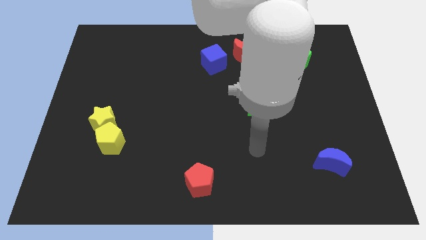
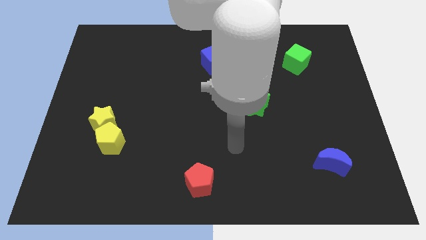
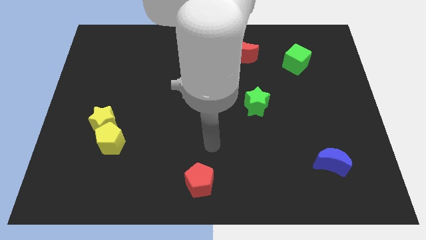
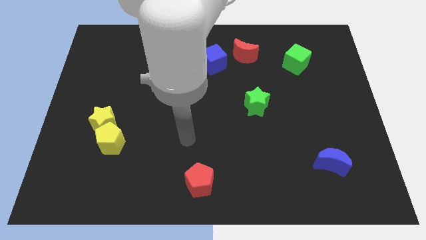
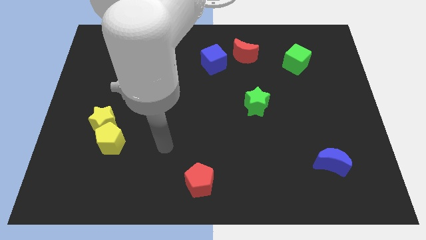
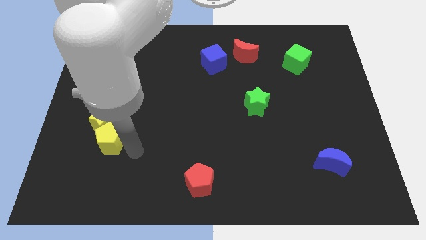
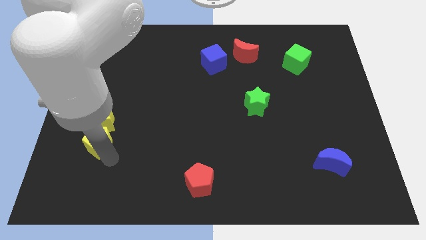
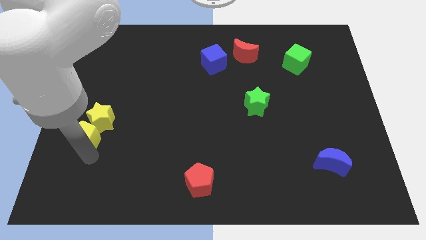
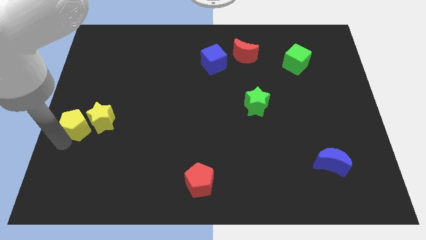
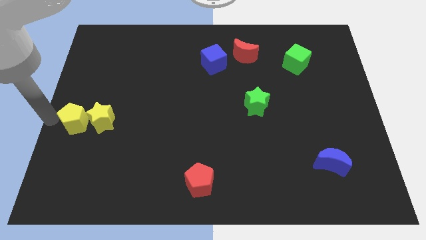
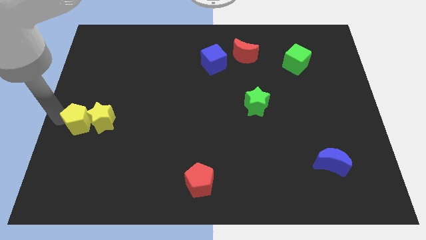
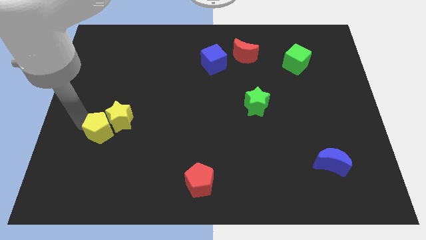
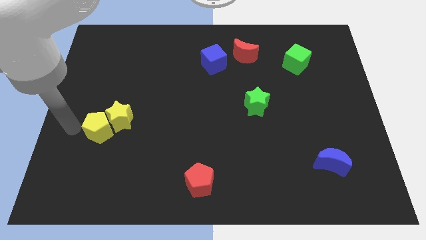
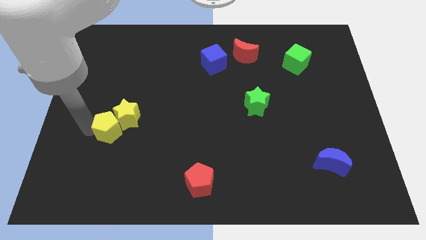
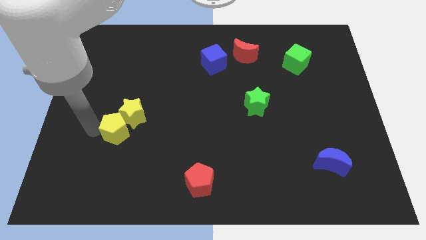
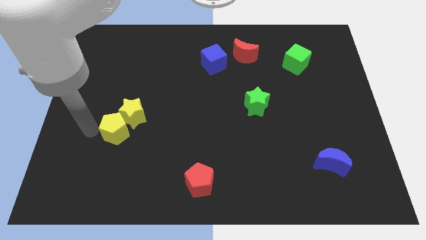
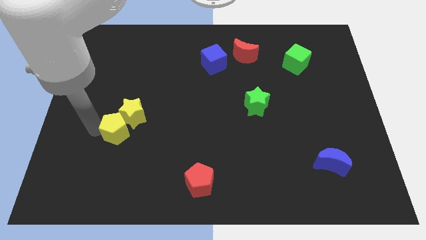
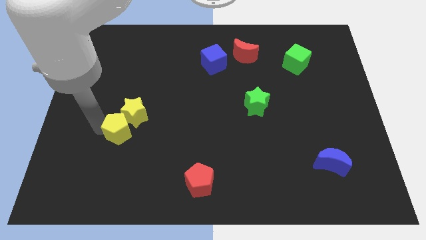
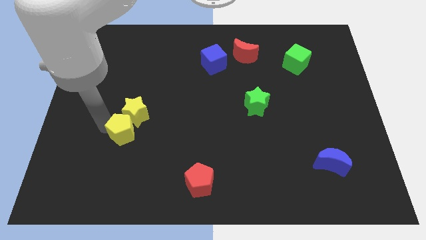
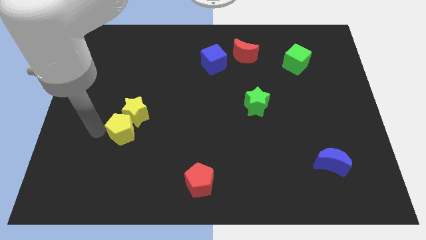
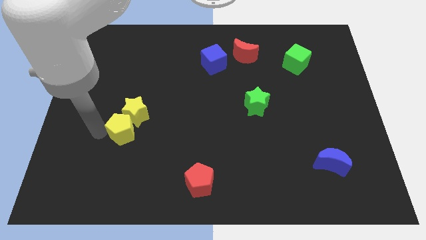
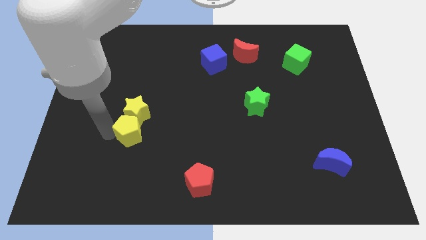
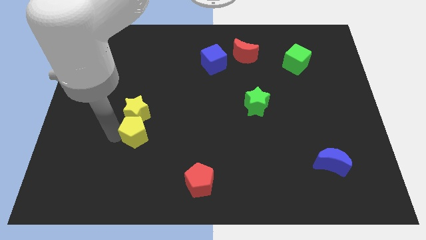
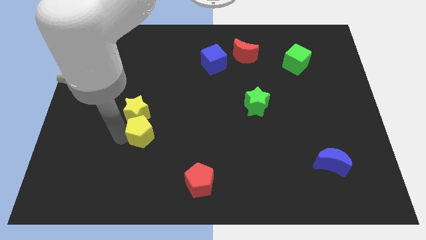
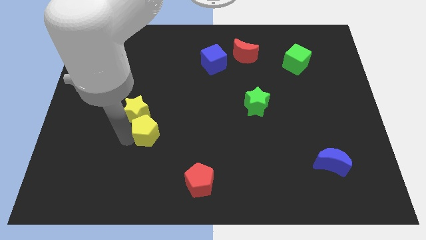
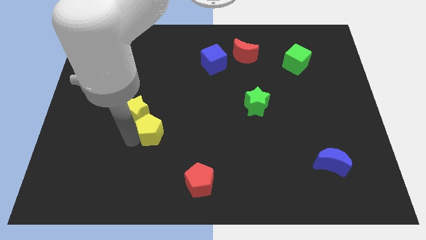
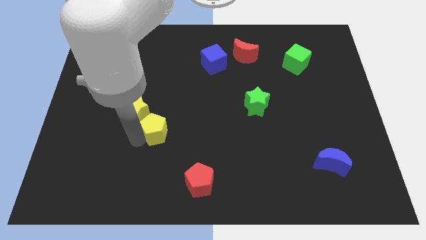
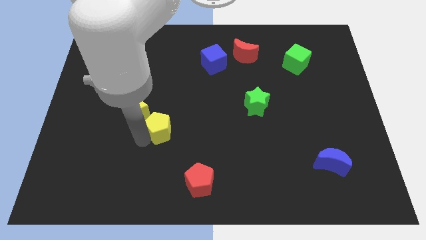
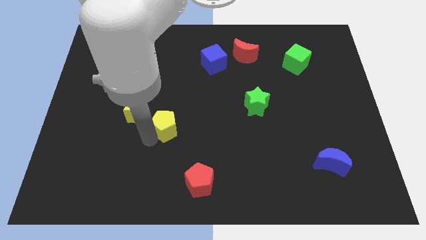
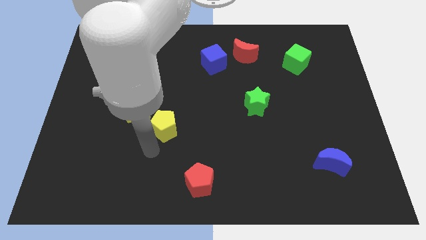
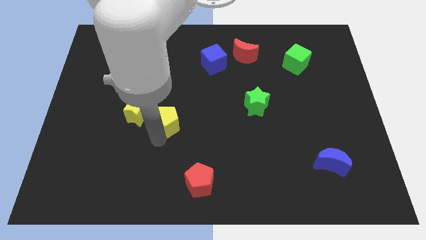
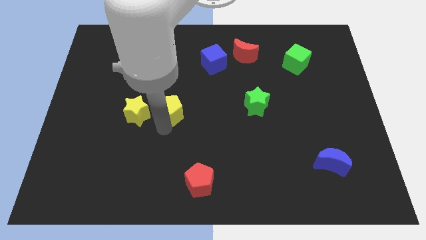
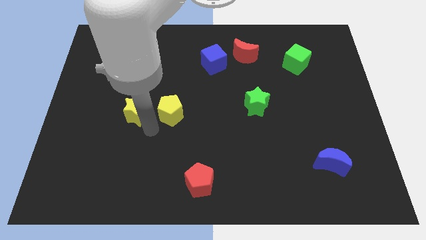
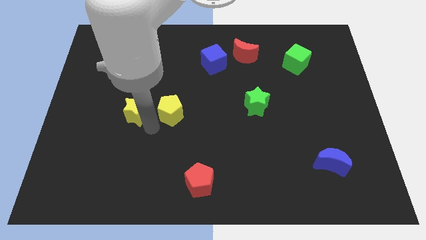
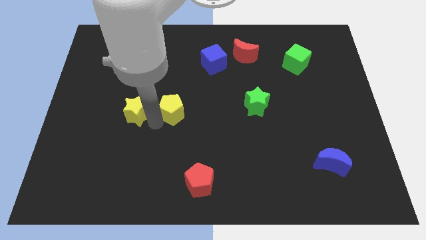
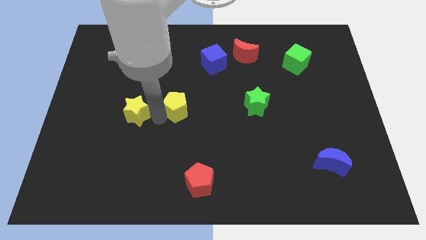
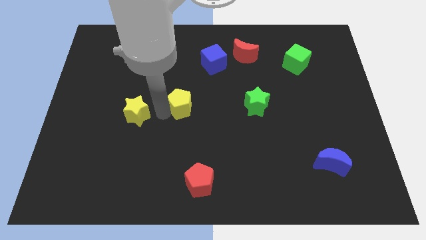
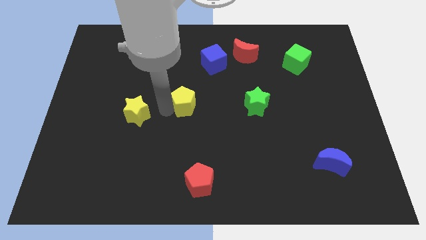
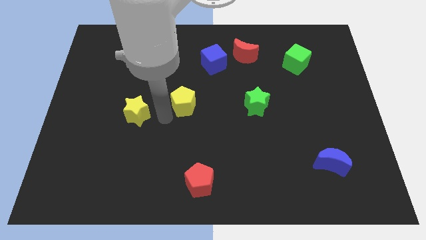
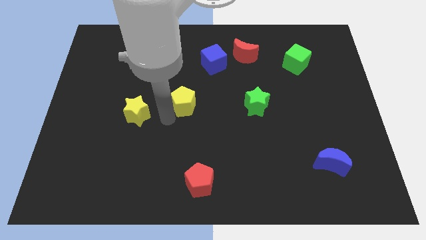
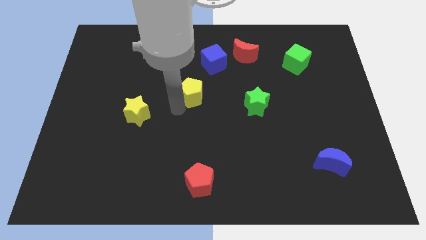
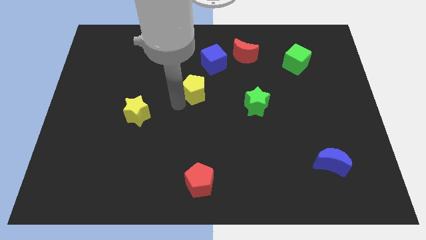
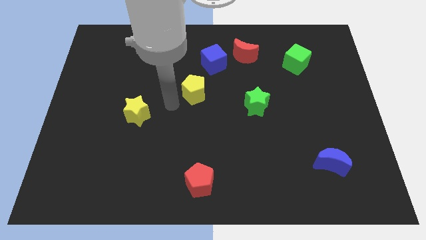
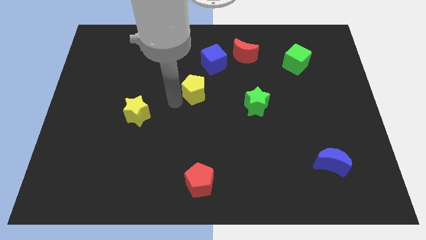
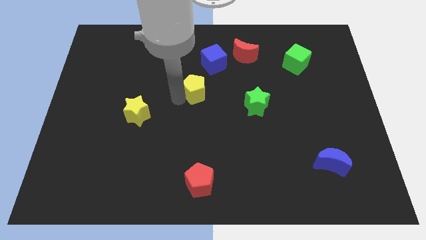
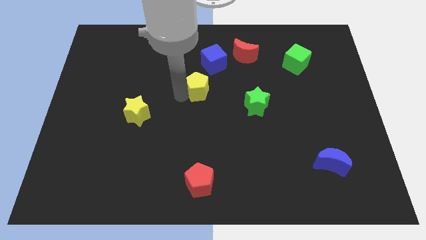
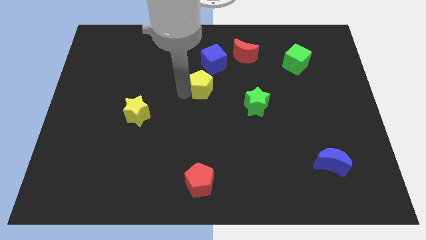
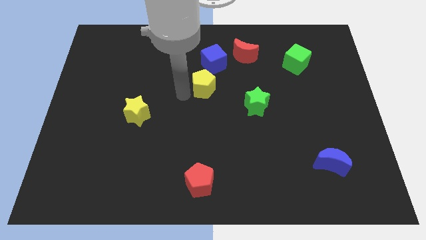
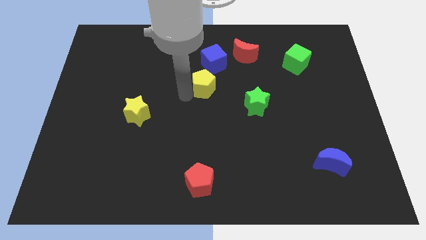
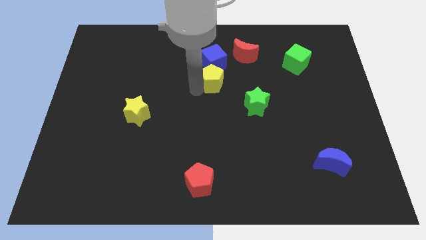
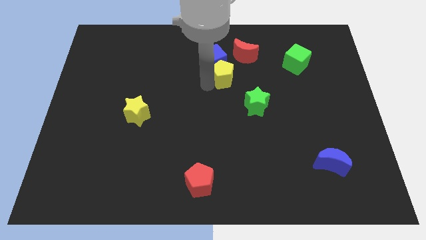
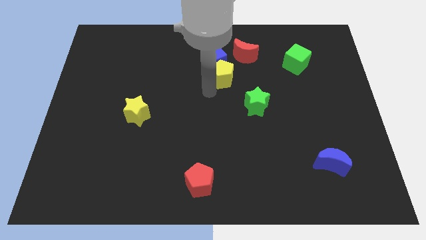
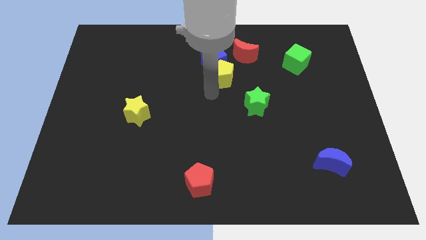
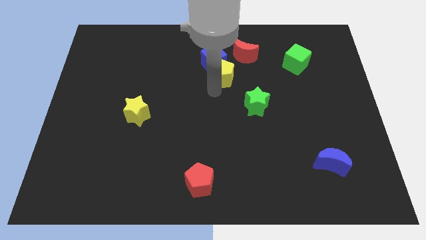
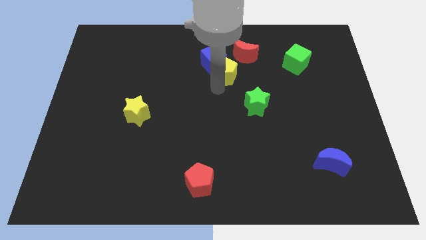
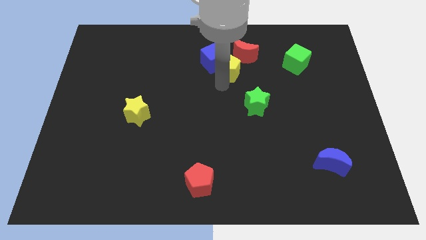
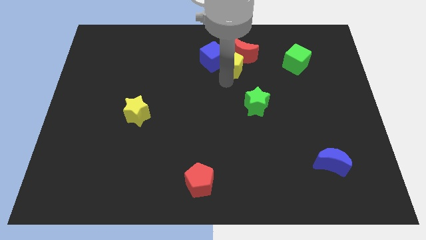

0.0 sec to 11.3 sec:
put the yellow pentagon close to the red moon

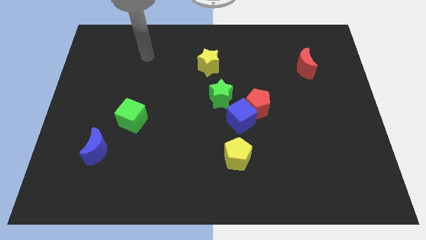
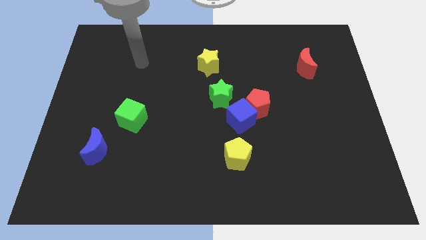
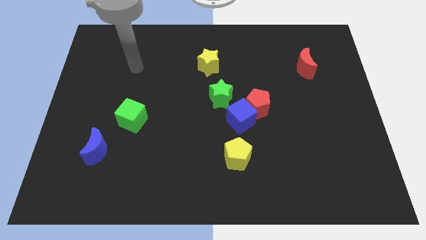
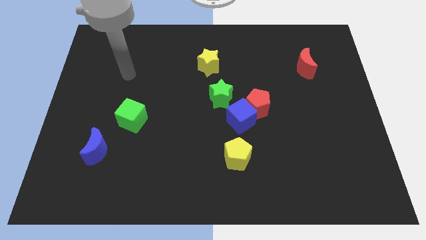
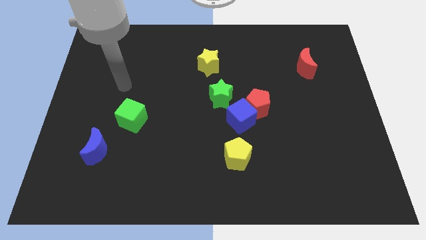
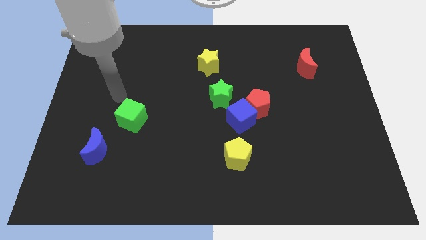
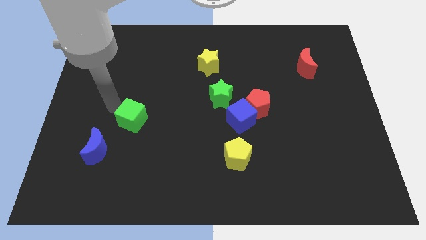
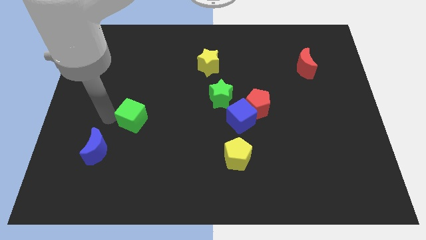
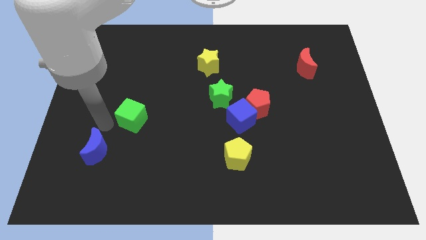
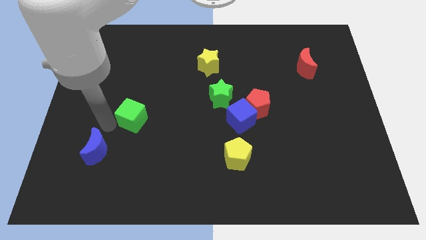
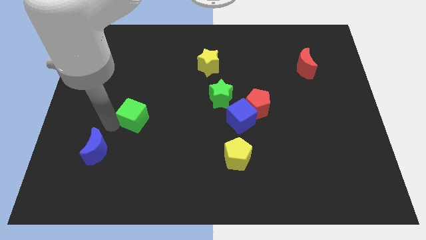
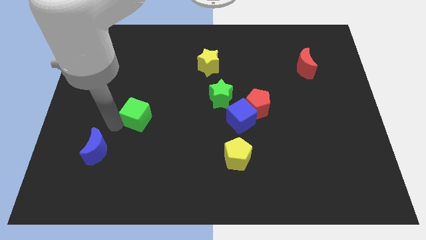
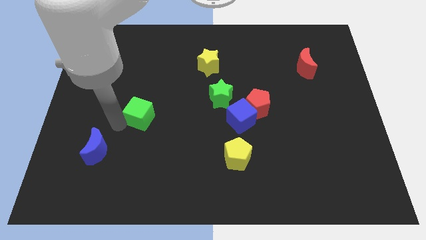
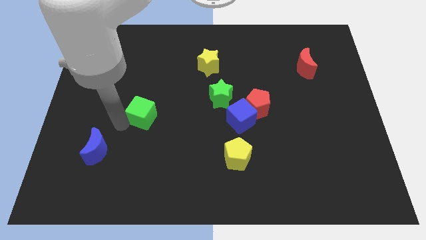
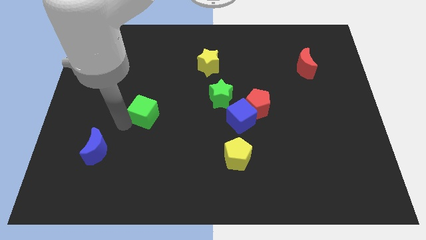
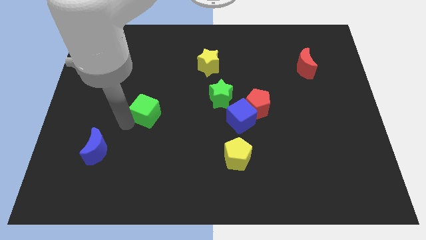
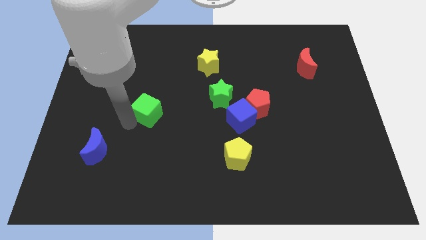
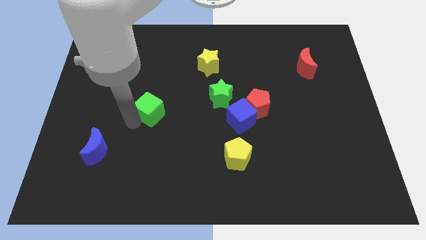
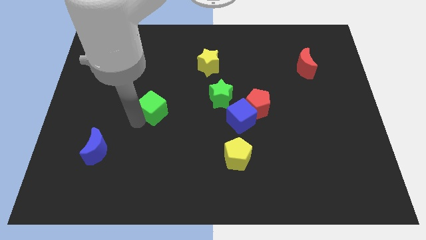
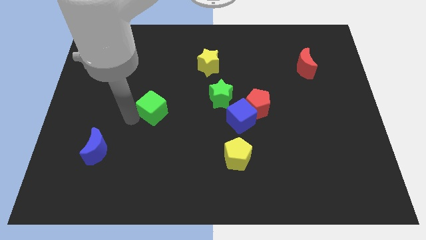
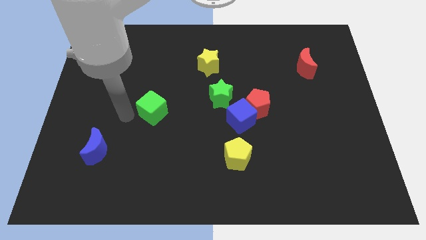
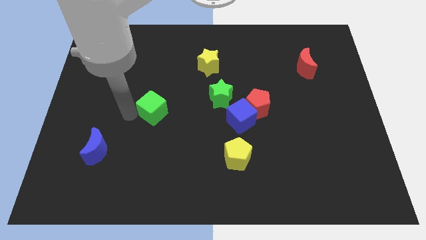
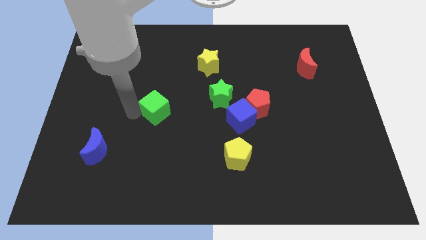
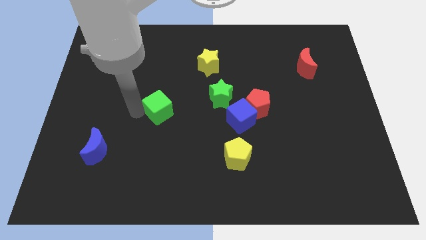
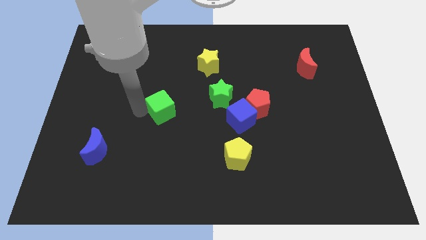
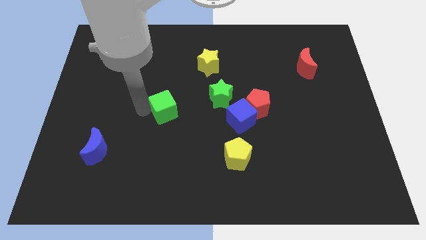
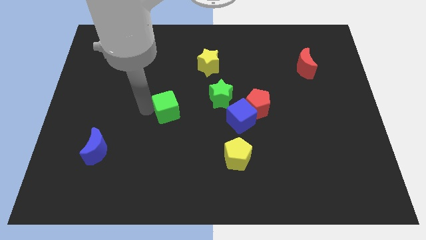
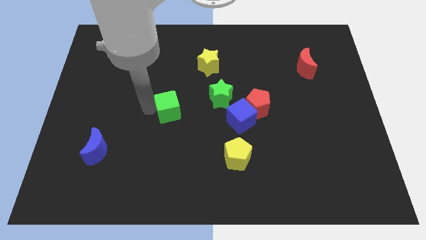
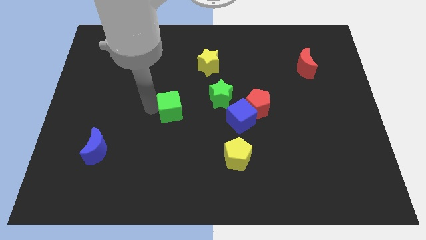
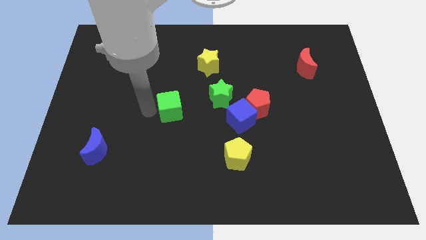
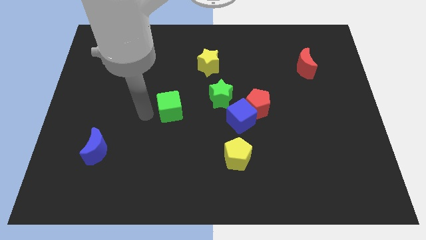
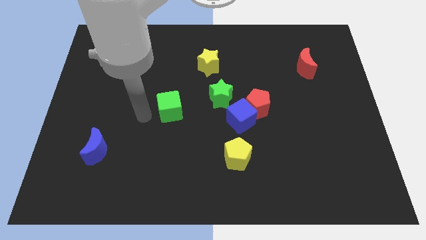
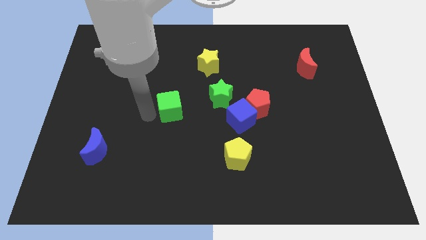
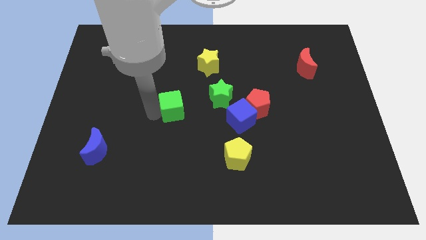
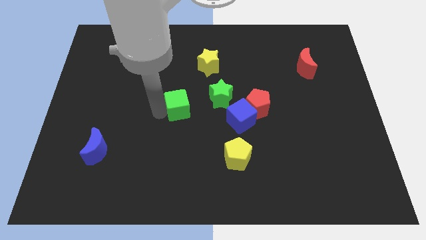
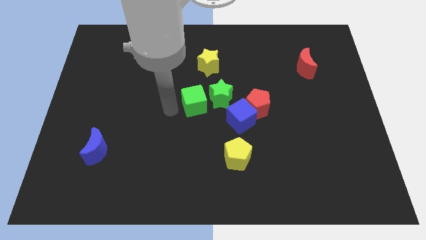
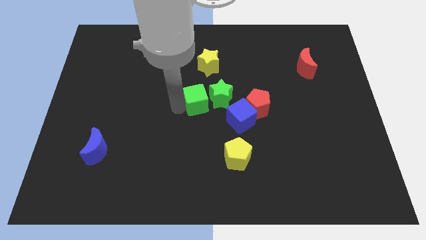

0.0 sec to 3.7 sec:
slide the green cube next to the green star
